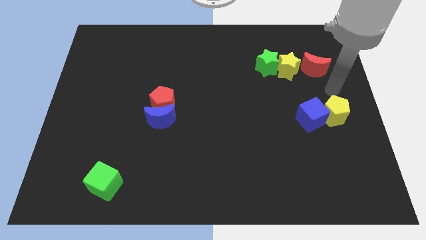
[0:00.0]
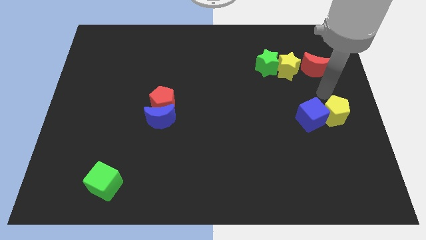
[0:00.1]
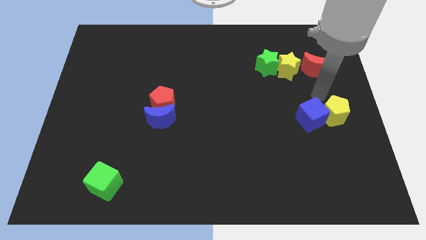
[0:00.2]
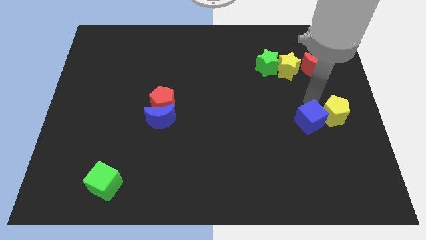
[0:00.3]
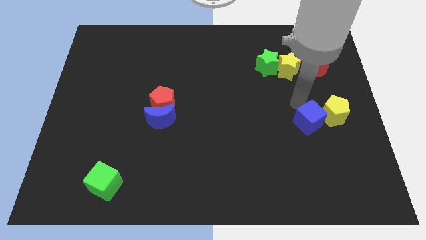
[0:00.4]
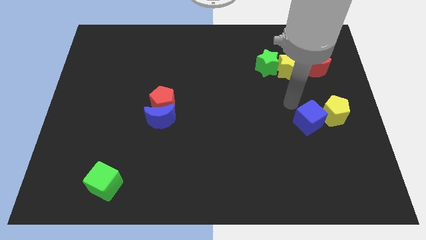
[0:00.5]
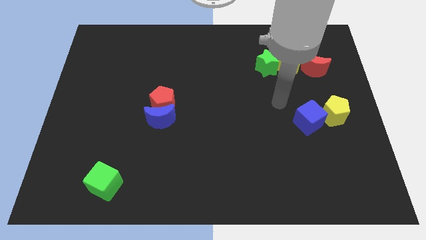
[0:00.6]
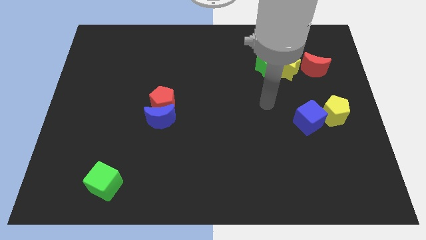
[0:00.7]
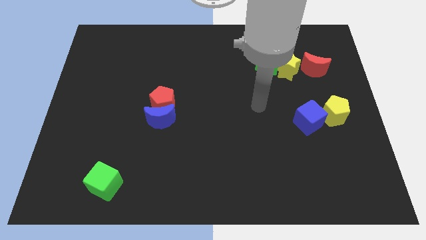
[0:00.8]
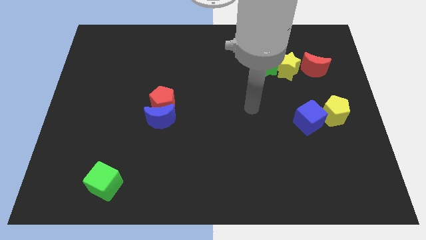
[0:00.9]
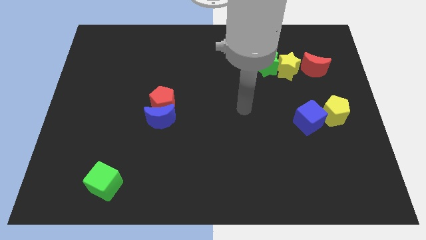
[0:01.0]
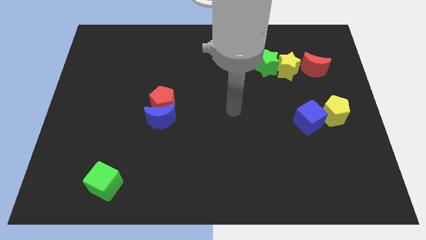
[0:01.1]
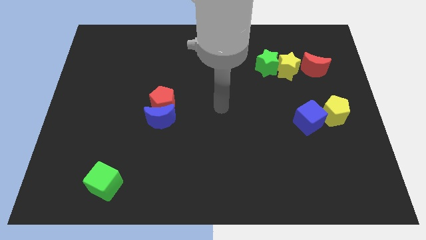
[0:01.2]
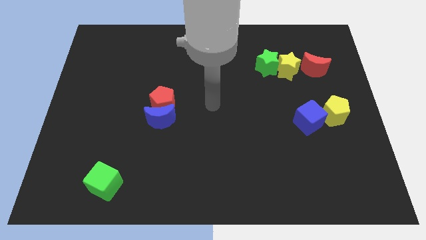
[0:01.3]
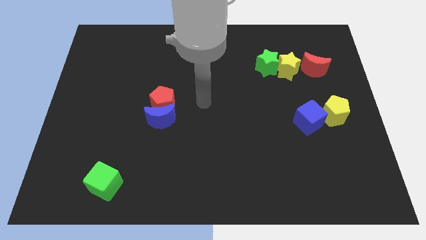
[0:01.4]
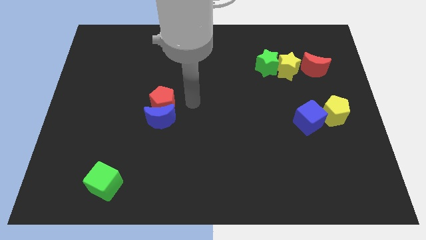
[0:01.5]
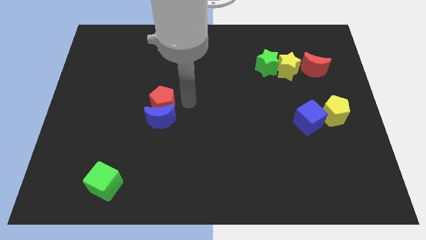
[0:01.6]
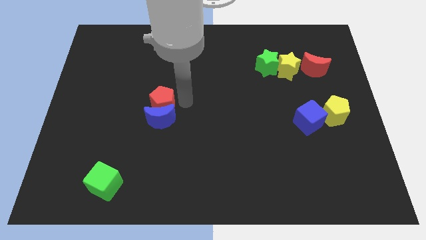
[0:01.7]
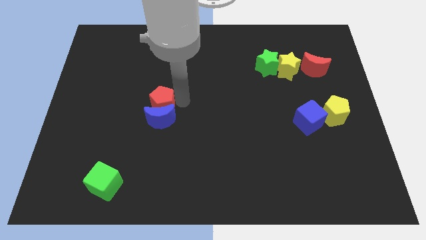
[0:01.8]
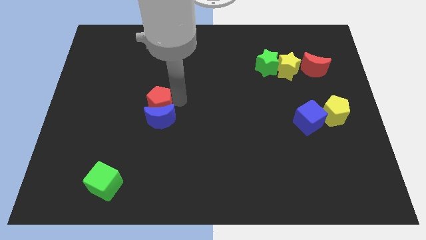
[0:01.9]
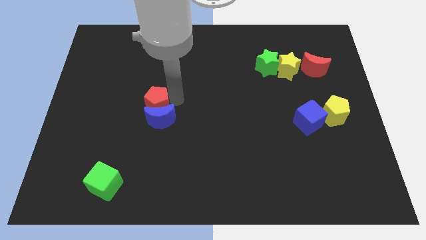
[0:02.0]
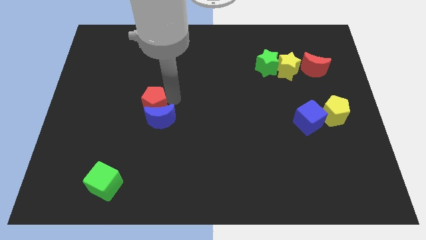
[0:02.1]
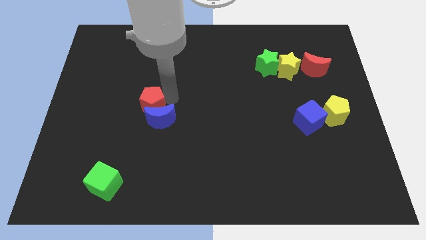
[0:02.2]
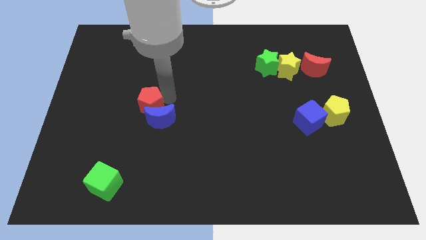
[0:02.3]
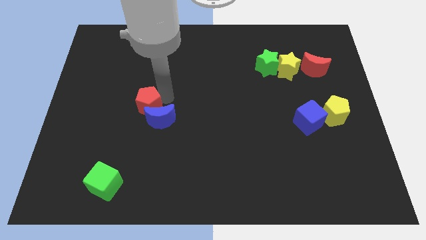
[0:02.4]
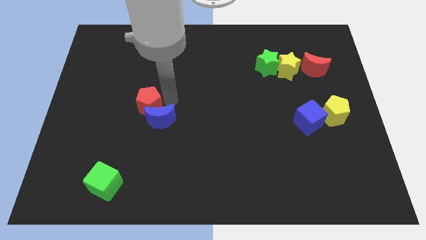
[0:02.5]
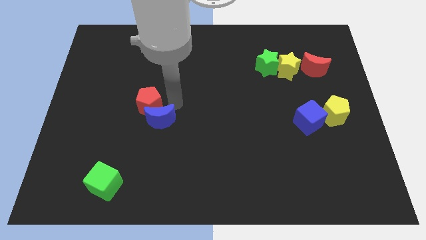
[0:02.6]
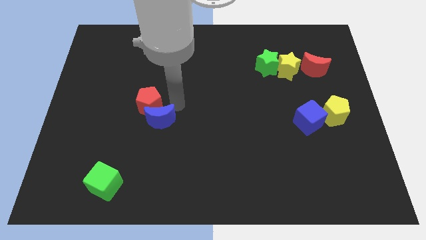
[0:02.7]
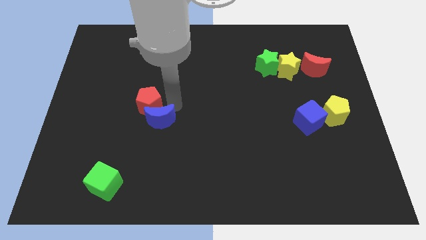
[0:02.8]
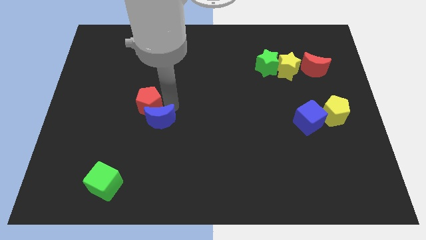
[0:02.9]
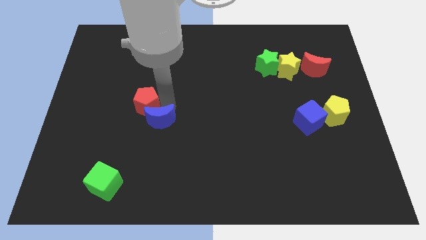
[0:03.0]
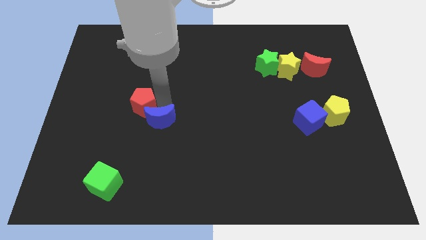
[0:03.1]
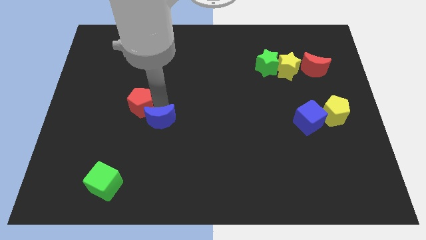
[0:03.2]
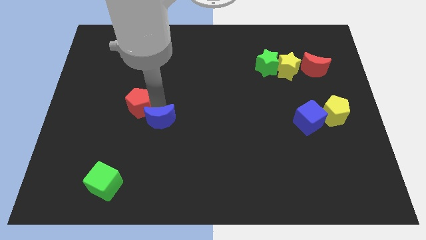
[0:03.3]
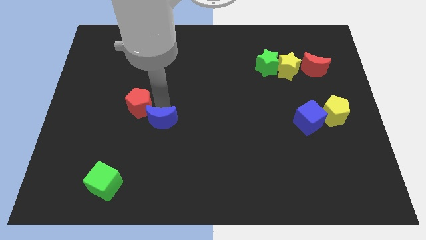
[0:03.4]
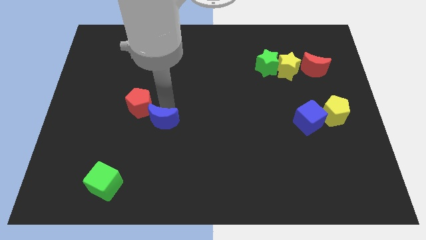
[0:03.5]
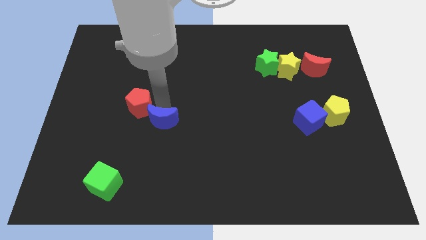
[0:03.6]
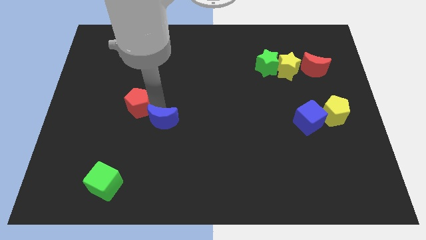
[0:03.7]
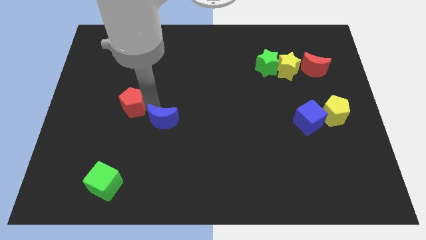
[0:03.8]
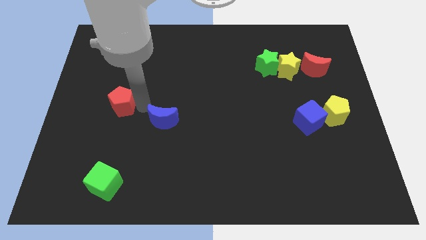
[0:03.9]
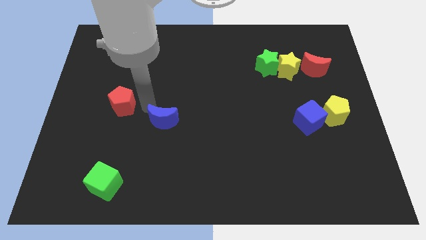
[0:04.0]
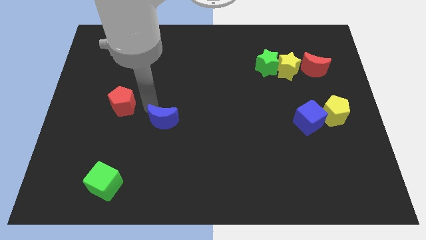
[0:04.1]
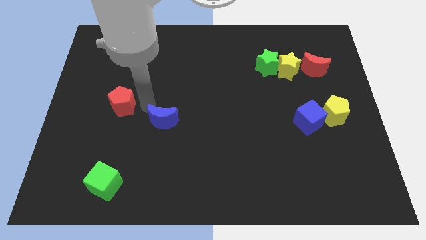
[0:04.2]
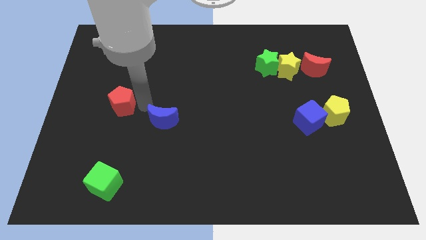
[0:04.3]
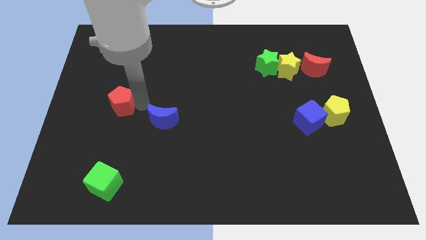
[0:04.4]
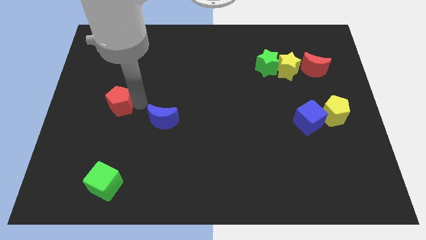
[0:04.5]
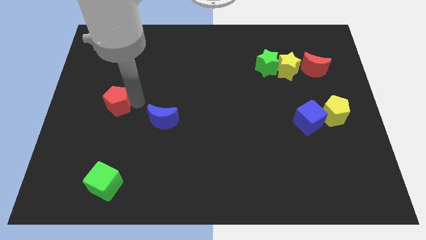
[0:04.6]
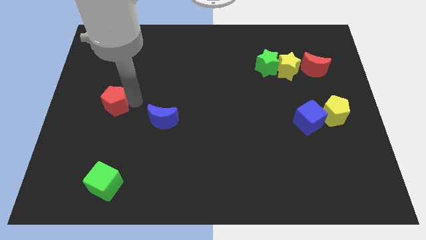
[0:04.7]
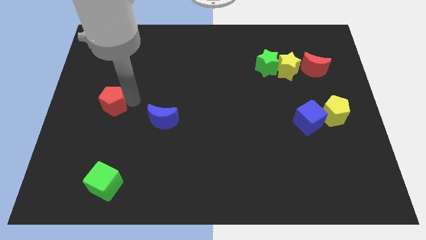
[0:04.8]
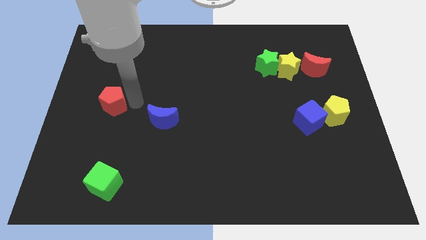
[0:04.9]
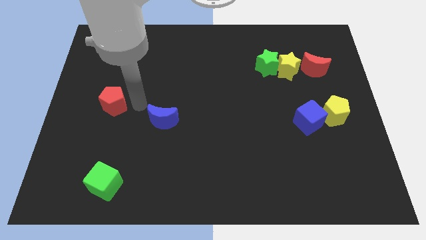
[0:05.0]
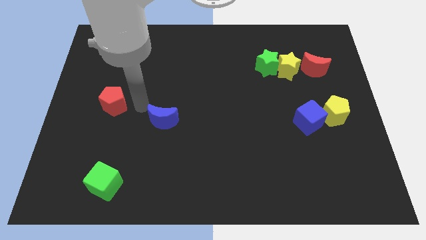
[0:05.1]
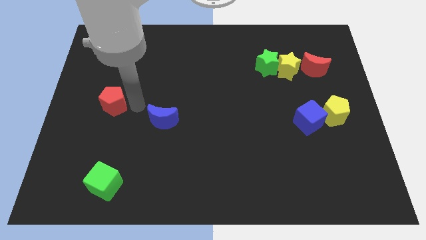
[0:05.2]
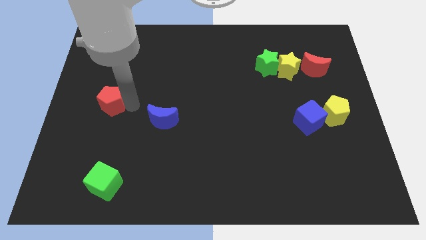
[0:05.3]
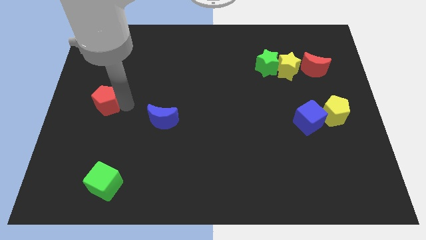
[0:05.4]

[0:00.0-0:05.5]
move the red pentagon to the left side

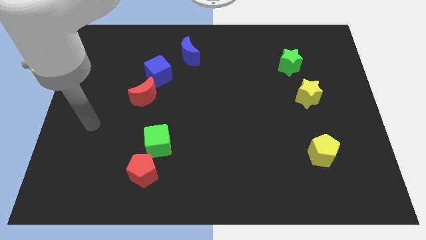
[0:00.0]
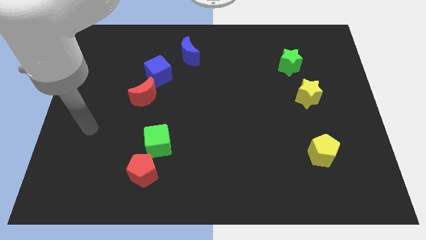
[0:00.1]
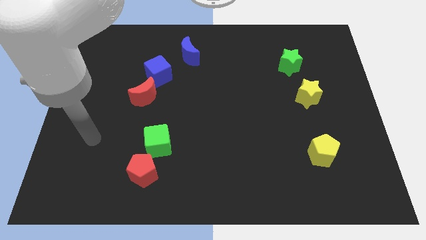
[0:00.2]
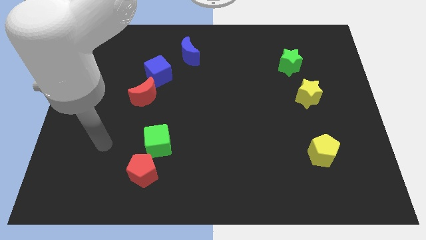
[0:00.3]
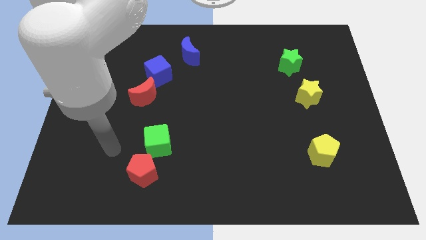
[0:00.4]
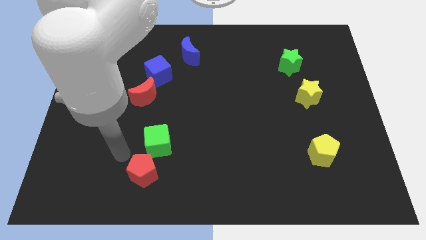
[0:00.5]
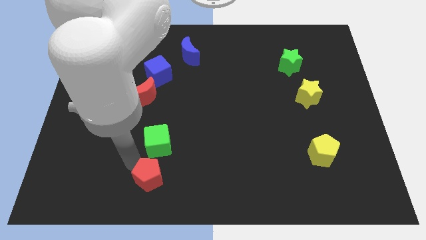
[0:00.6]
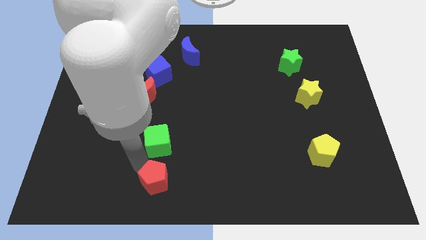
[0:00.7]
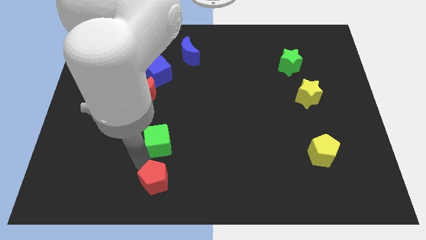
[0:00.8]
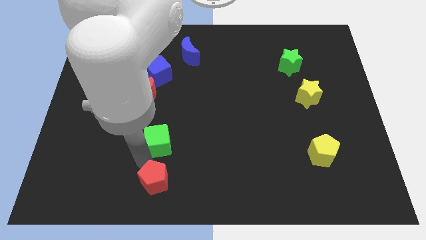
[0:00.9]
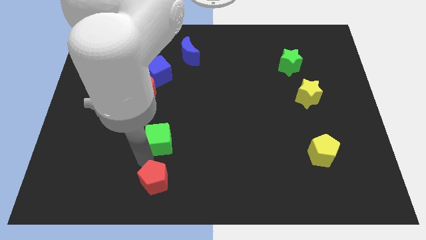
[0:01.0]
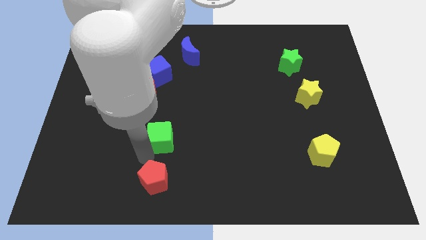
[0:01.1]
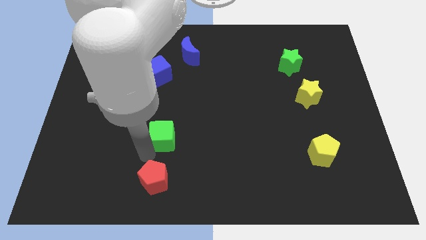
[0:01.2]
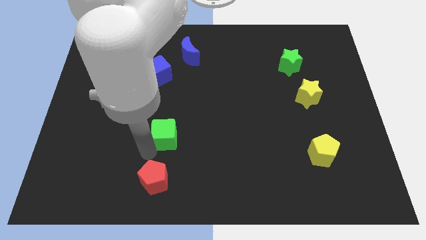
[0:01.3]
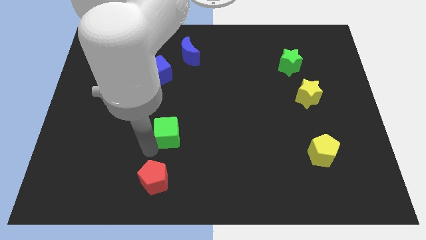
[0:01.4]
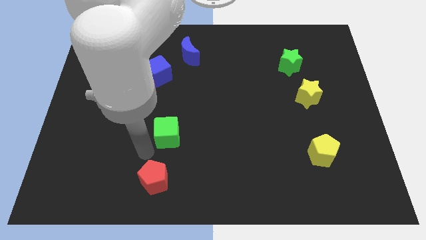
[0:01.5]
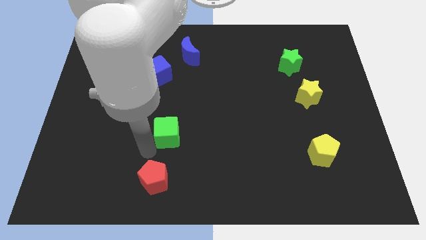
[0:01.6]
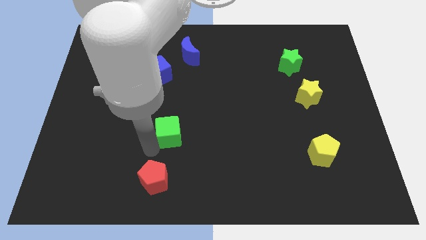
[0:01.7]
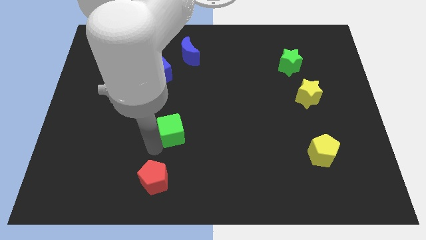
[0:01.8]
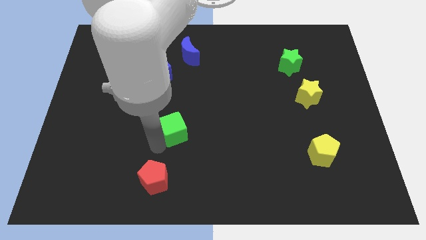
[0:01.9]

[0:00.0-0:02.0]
push the green cube to the middle of the board
